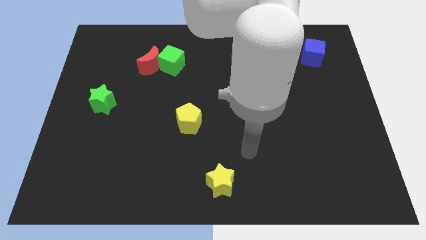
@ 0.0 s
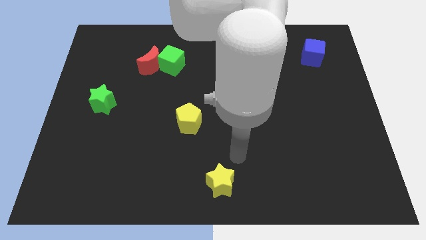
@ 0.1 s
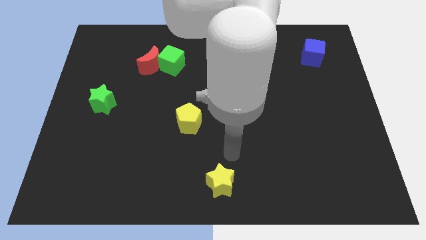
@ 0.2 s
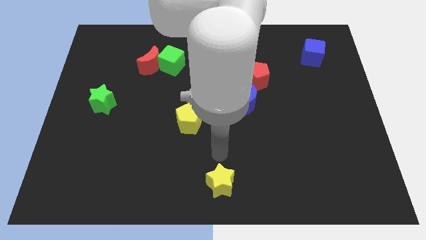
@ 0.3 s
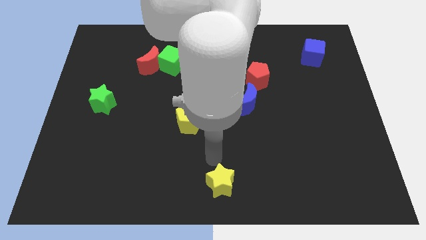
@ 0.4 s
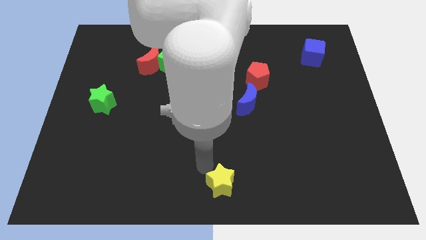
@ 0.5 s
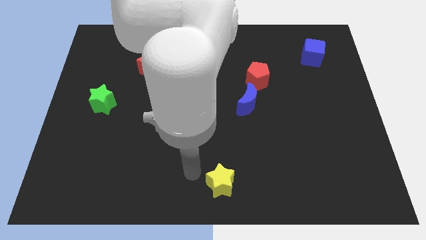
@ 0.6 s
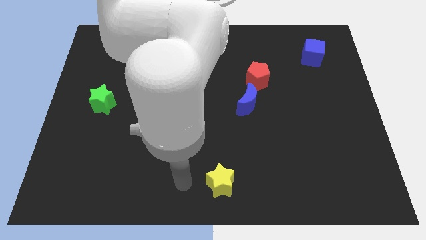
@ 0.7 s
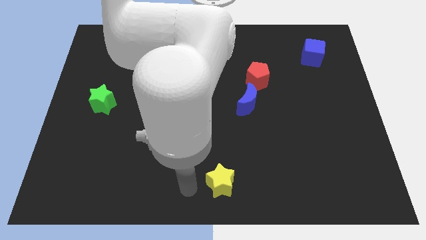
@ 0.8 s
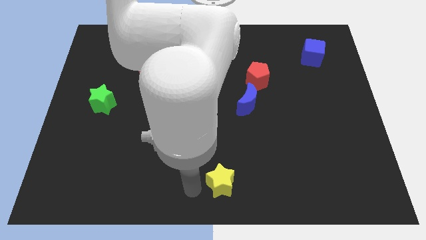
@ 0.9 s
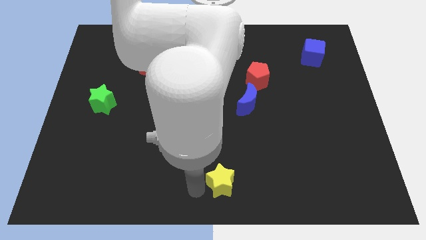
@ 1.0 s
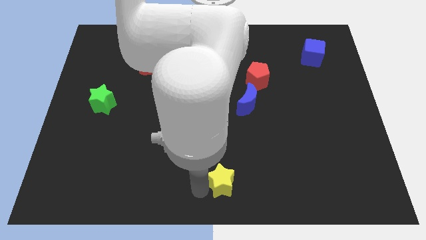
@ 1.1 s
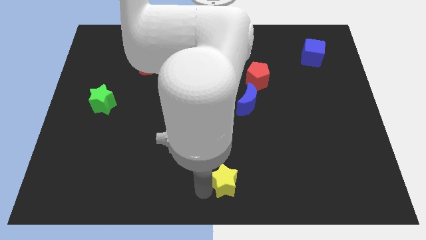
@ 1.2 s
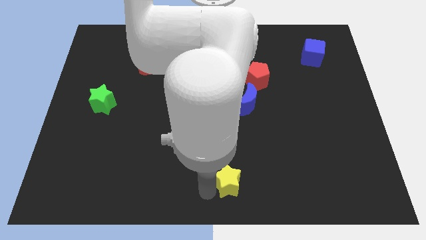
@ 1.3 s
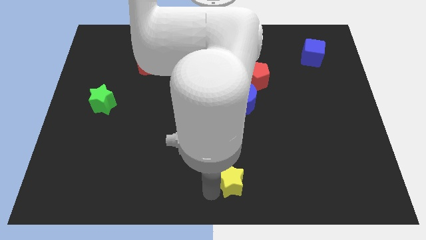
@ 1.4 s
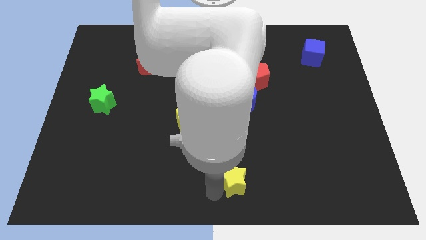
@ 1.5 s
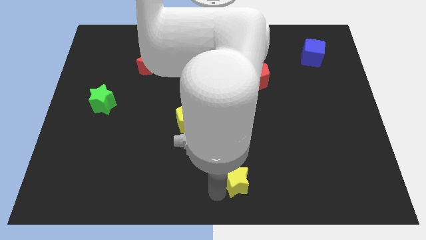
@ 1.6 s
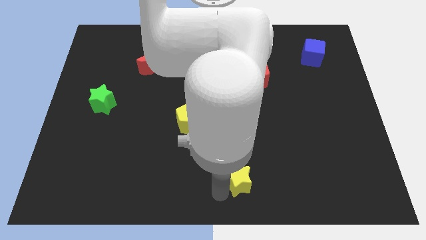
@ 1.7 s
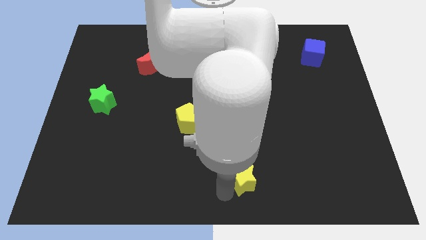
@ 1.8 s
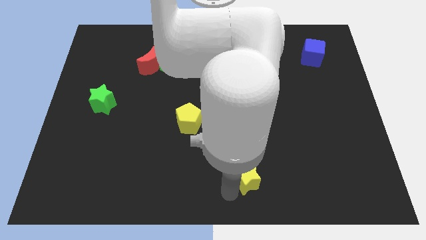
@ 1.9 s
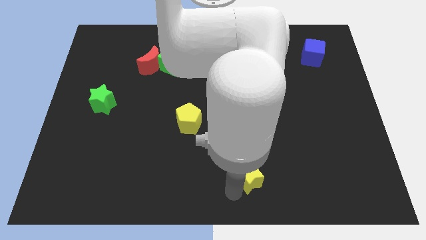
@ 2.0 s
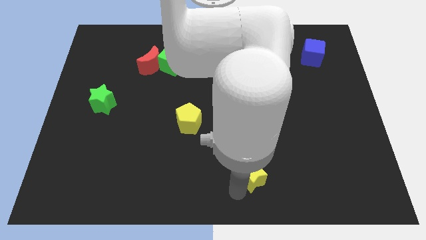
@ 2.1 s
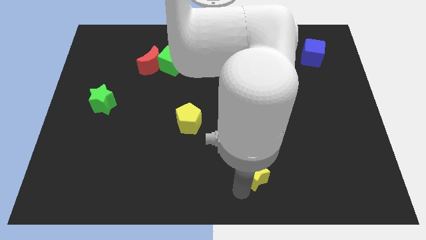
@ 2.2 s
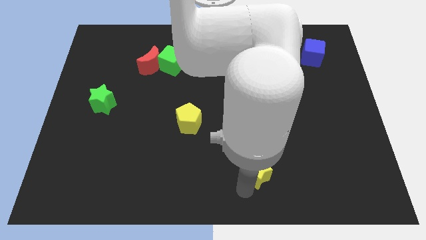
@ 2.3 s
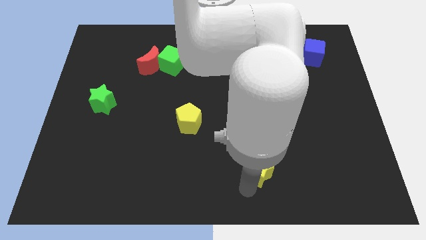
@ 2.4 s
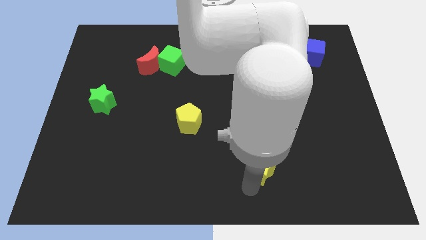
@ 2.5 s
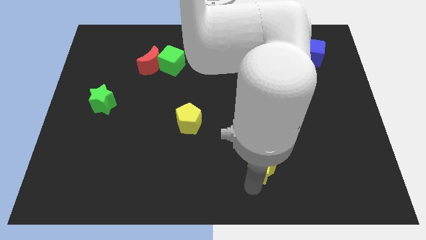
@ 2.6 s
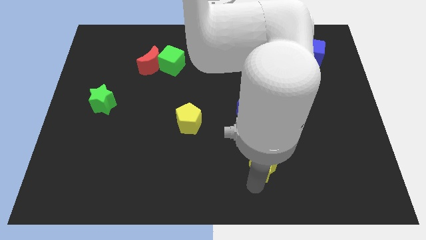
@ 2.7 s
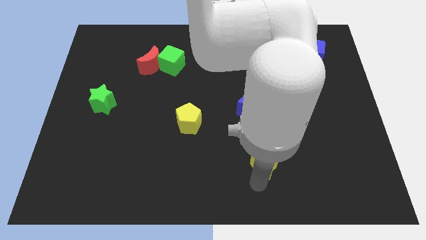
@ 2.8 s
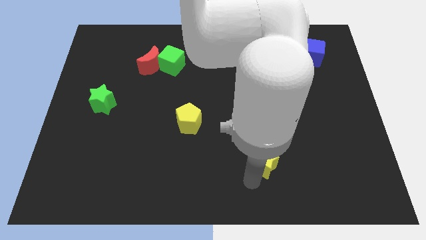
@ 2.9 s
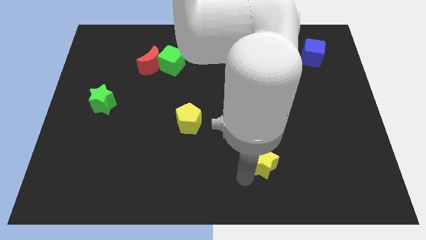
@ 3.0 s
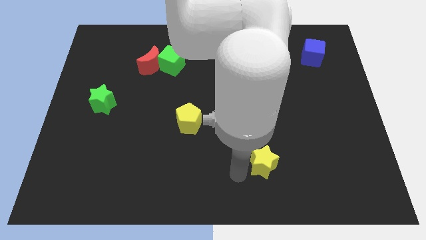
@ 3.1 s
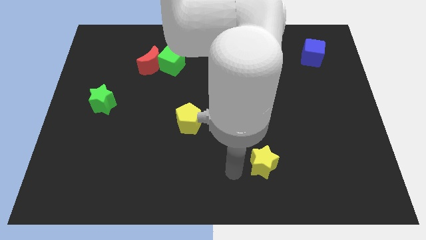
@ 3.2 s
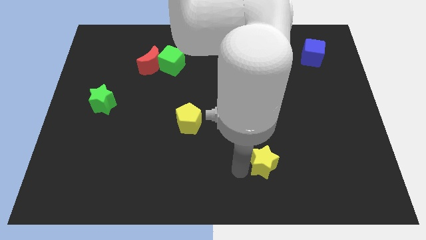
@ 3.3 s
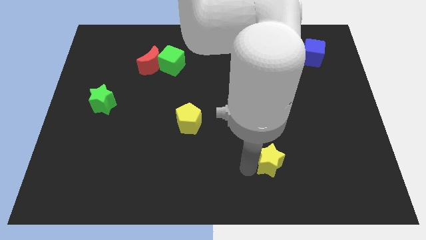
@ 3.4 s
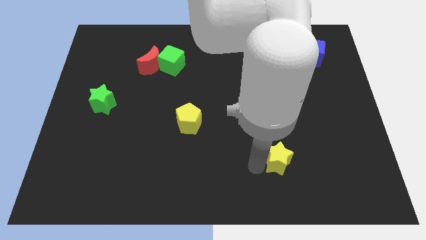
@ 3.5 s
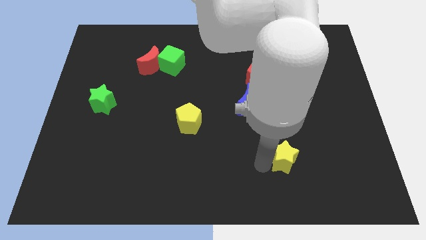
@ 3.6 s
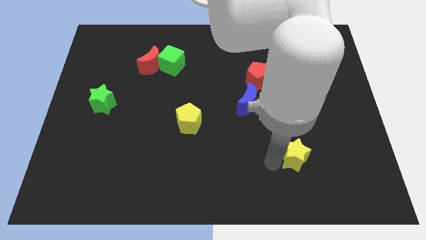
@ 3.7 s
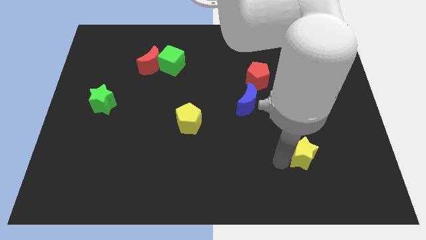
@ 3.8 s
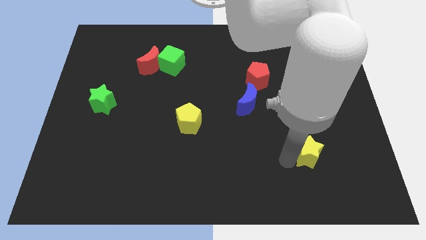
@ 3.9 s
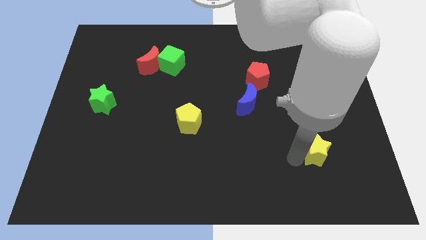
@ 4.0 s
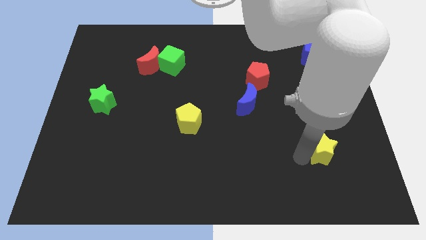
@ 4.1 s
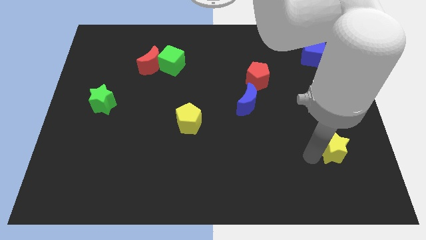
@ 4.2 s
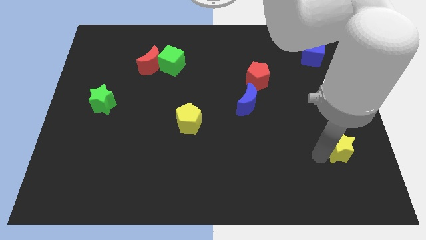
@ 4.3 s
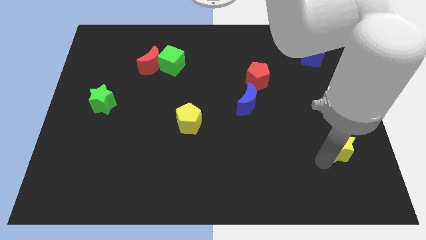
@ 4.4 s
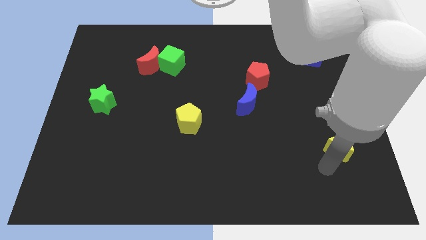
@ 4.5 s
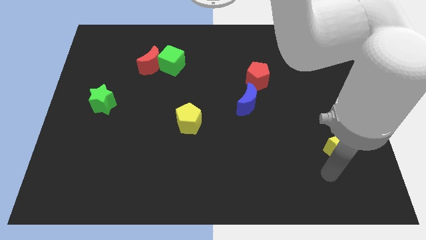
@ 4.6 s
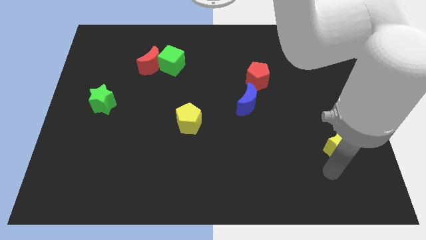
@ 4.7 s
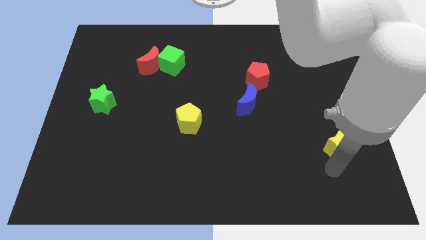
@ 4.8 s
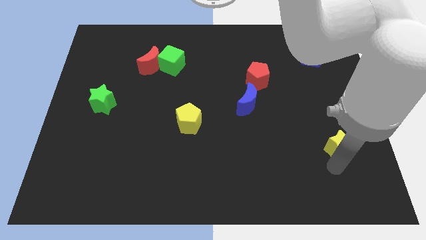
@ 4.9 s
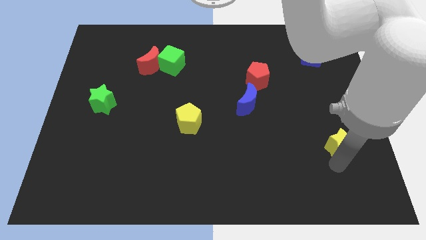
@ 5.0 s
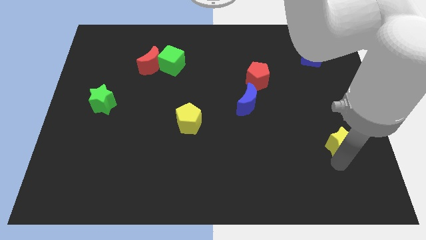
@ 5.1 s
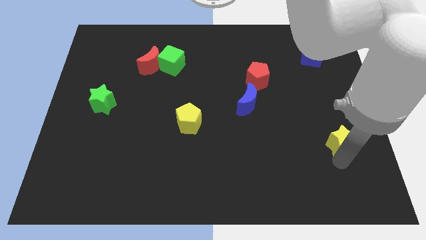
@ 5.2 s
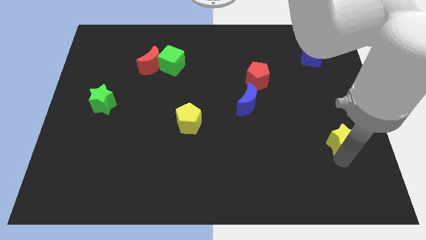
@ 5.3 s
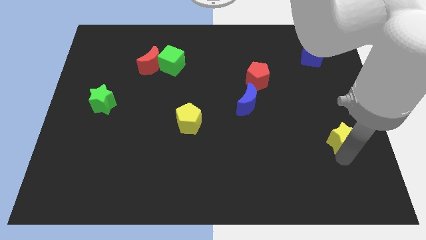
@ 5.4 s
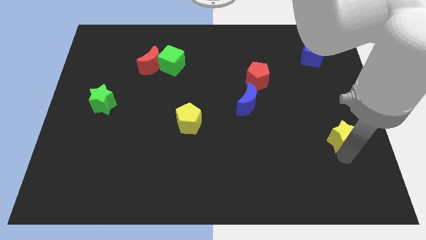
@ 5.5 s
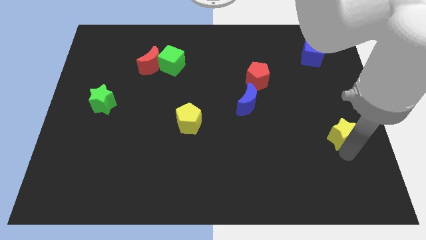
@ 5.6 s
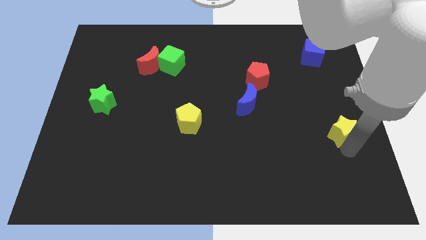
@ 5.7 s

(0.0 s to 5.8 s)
put the yellow star to the right side

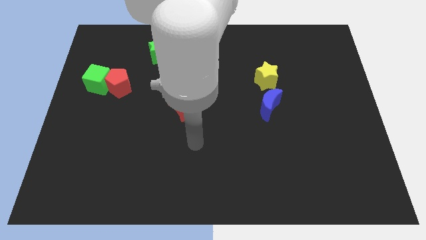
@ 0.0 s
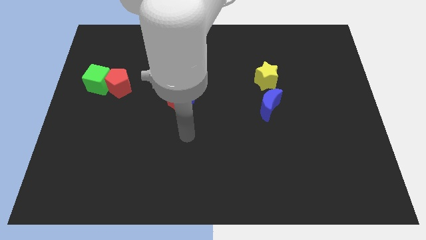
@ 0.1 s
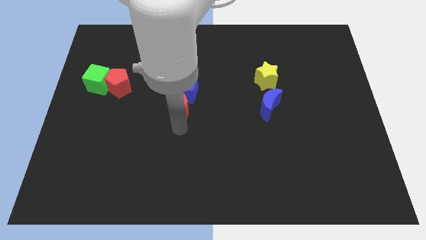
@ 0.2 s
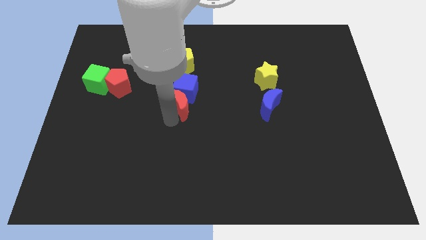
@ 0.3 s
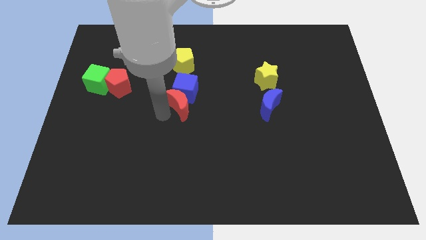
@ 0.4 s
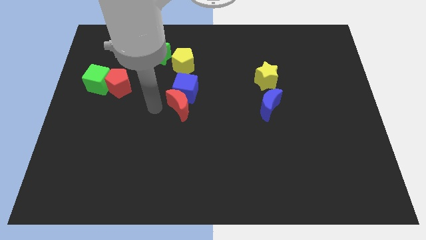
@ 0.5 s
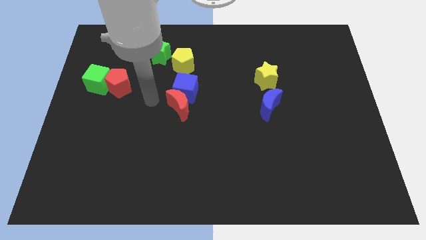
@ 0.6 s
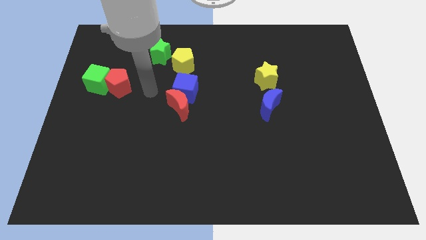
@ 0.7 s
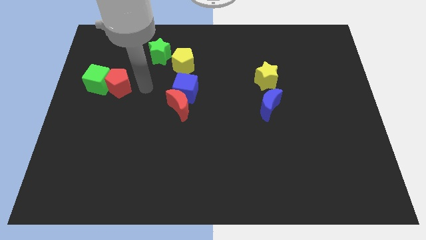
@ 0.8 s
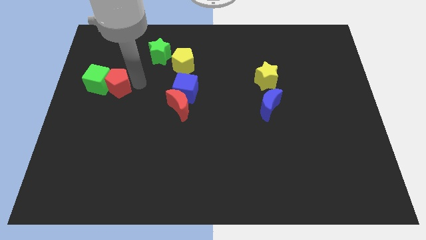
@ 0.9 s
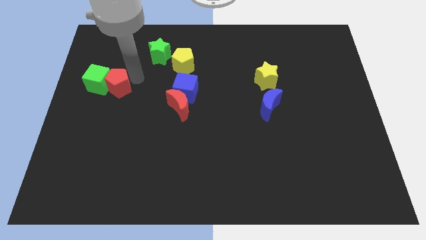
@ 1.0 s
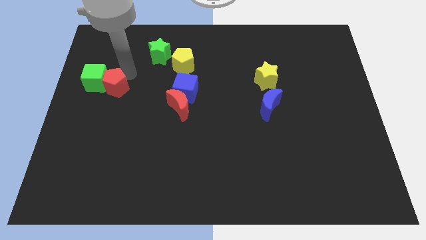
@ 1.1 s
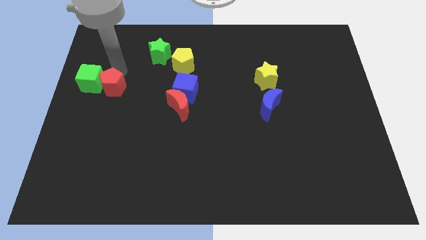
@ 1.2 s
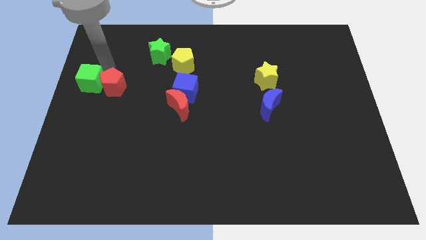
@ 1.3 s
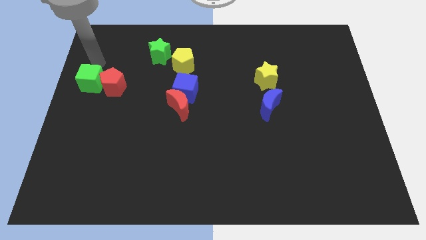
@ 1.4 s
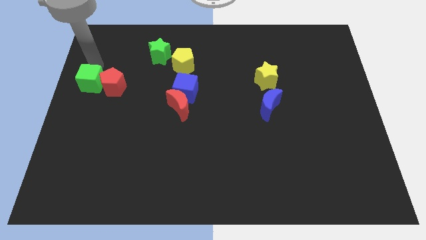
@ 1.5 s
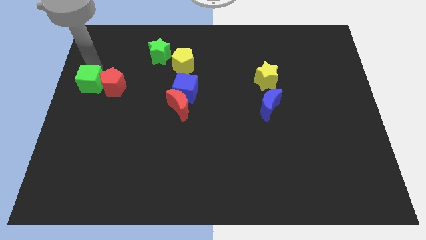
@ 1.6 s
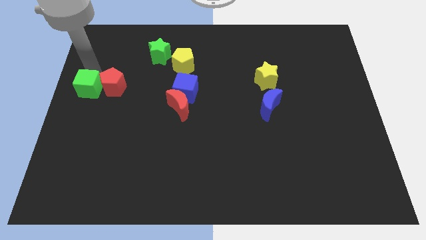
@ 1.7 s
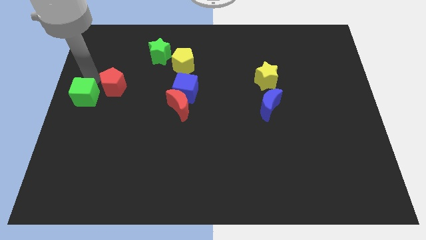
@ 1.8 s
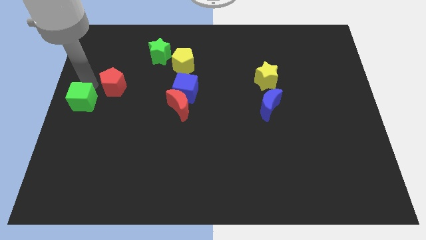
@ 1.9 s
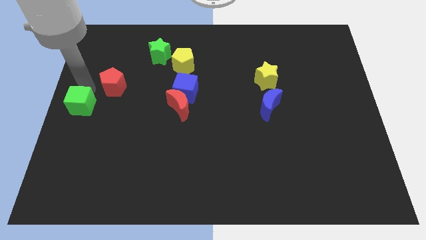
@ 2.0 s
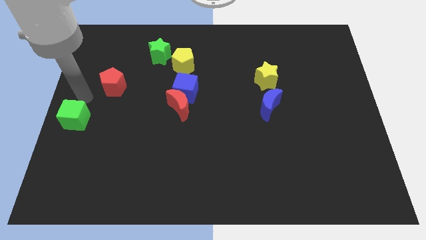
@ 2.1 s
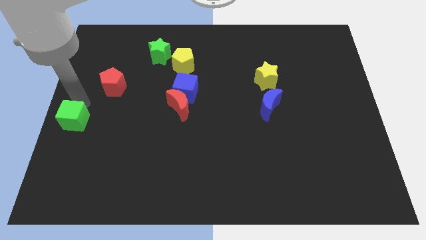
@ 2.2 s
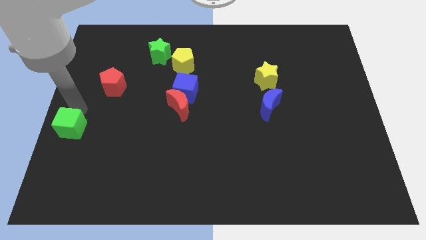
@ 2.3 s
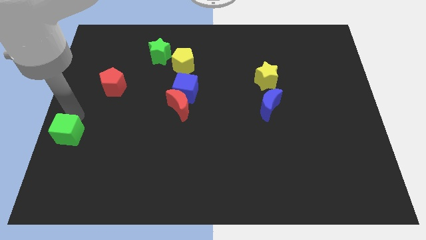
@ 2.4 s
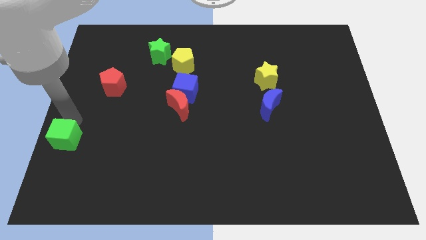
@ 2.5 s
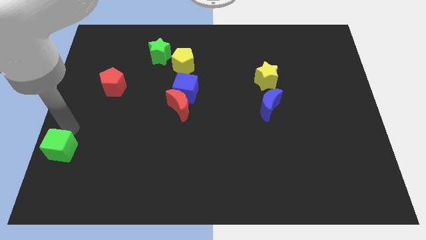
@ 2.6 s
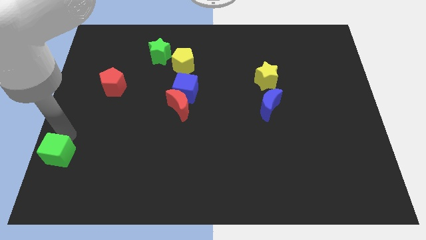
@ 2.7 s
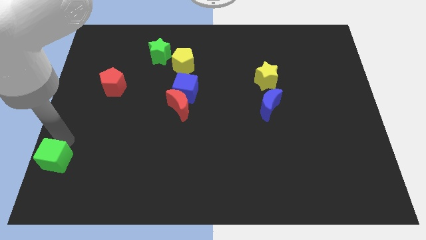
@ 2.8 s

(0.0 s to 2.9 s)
put the green cube to the lower left corner
